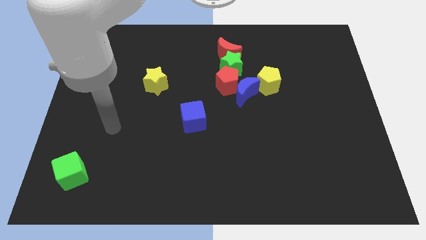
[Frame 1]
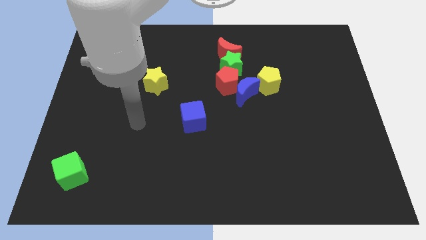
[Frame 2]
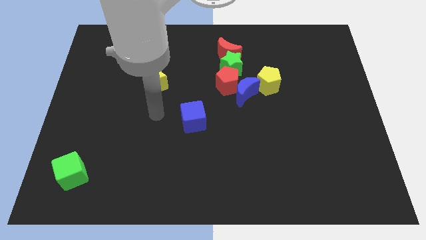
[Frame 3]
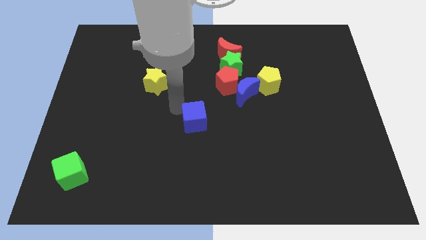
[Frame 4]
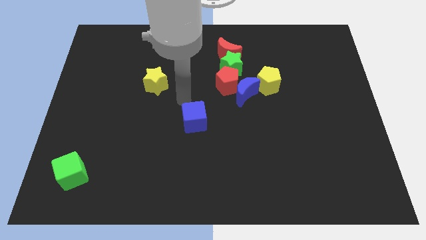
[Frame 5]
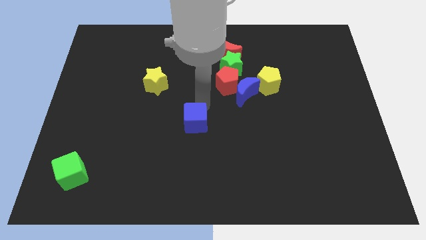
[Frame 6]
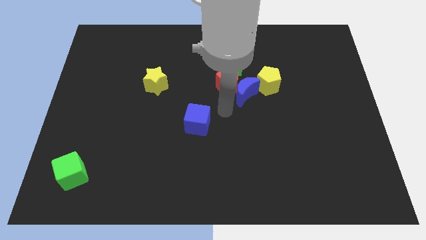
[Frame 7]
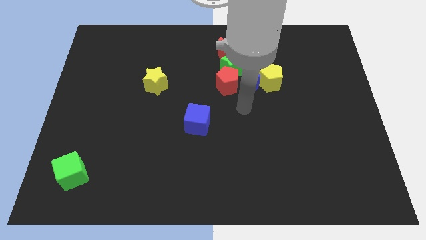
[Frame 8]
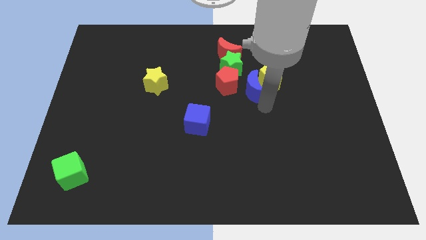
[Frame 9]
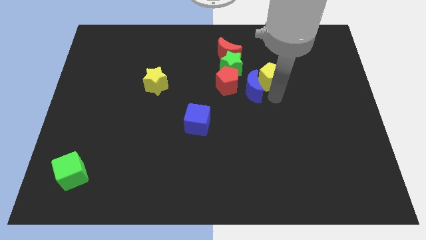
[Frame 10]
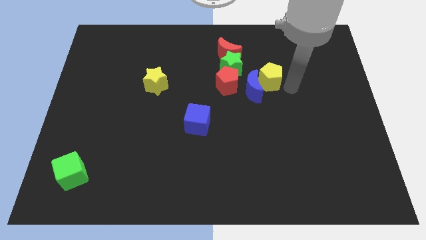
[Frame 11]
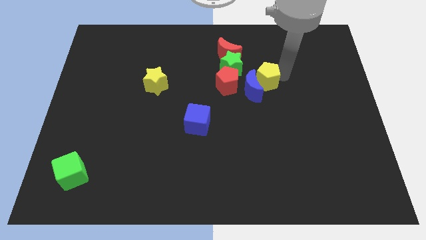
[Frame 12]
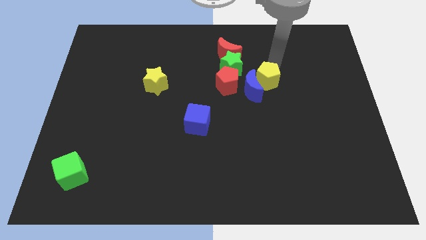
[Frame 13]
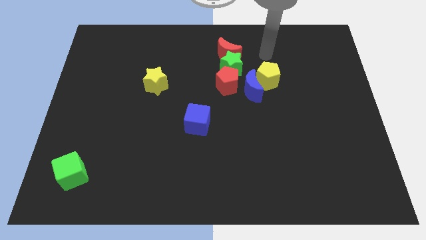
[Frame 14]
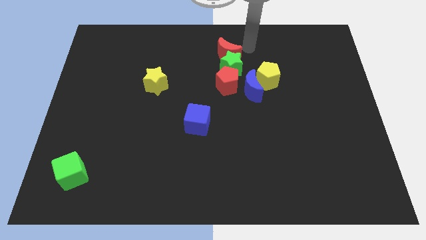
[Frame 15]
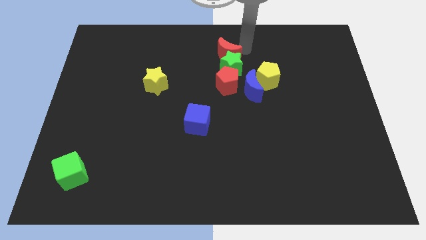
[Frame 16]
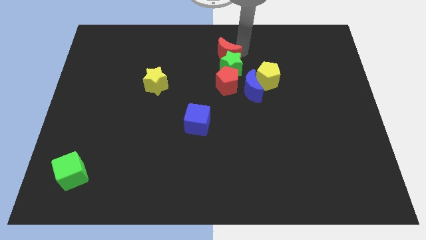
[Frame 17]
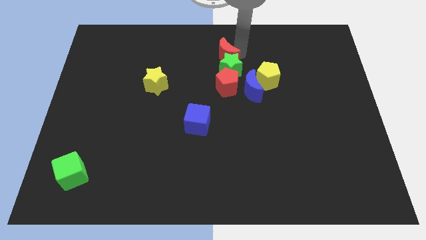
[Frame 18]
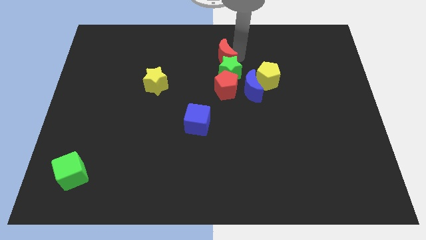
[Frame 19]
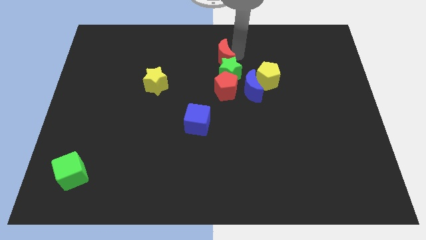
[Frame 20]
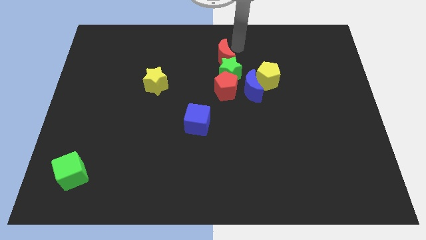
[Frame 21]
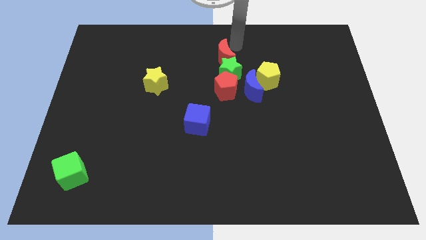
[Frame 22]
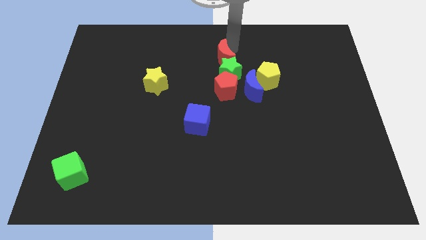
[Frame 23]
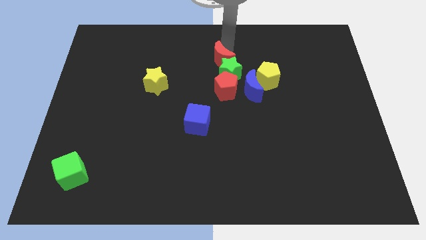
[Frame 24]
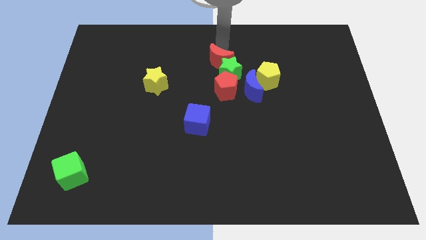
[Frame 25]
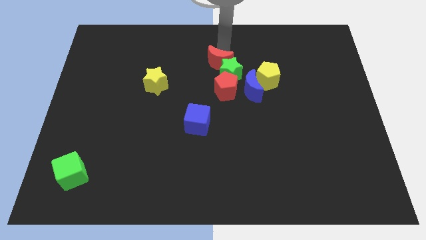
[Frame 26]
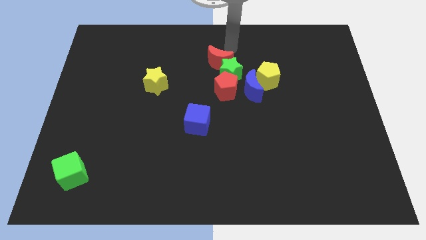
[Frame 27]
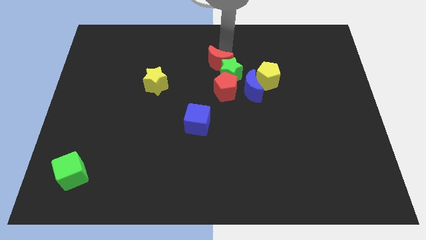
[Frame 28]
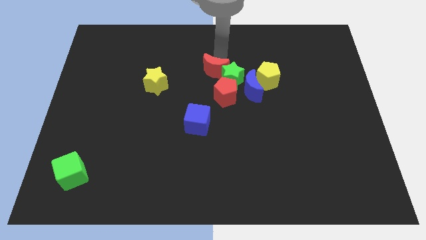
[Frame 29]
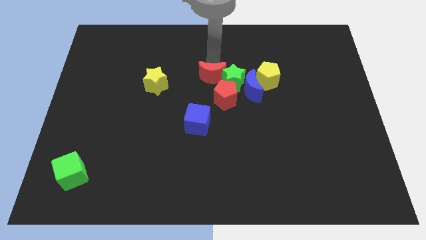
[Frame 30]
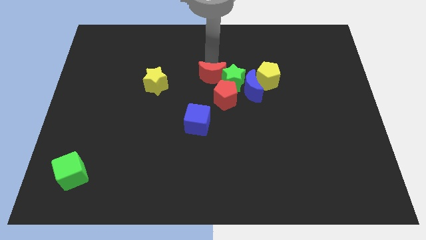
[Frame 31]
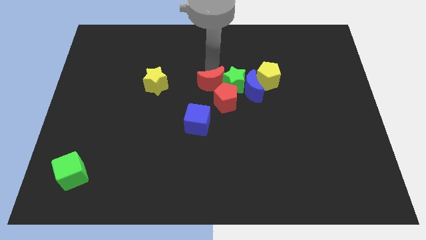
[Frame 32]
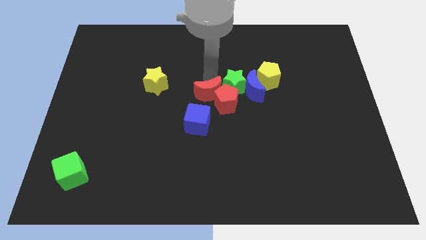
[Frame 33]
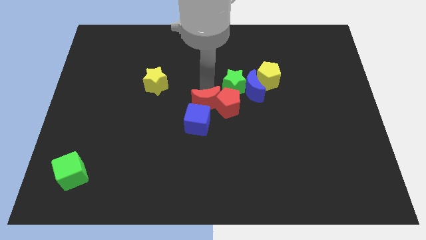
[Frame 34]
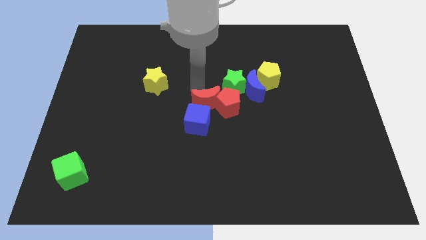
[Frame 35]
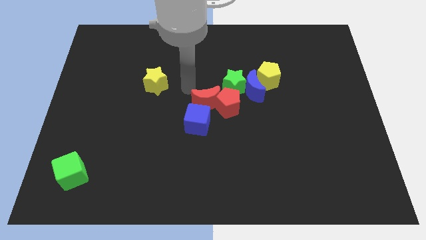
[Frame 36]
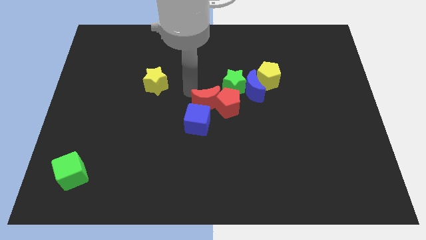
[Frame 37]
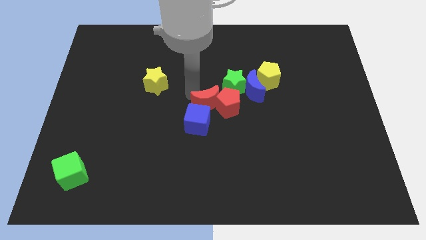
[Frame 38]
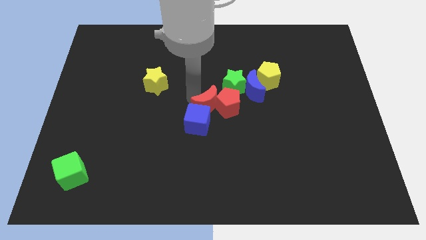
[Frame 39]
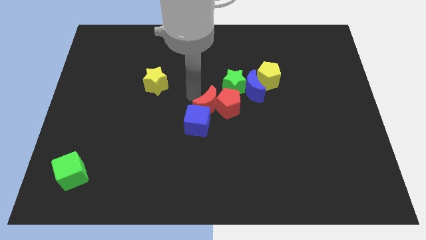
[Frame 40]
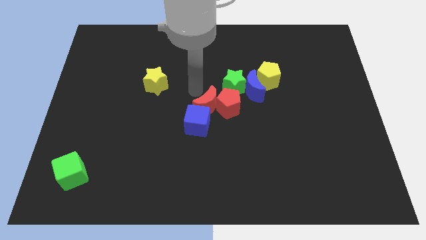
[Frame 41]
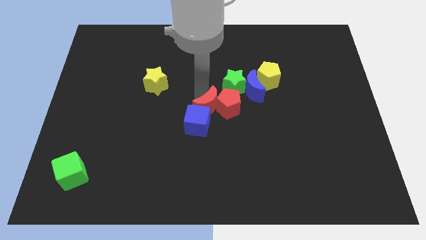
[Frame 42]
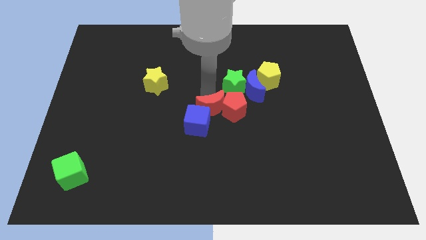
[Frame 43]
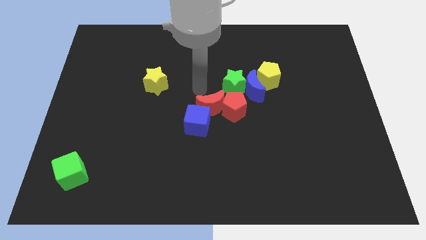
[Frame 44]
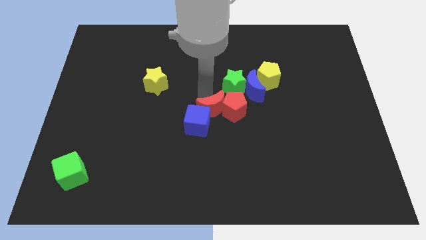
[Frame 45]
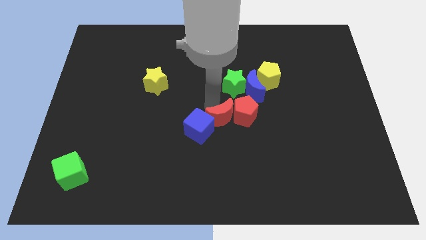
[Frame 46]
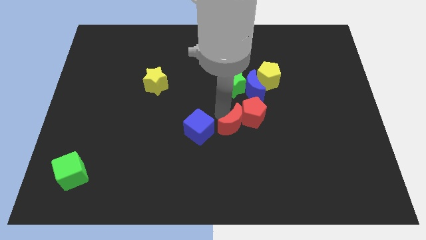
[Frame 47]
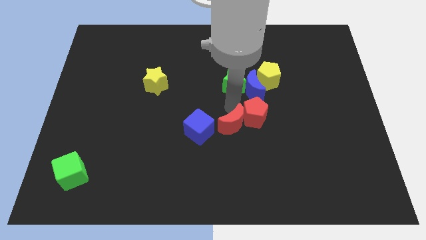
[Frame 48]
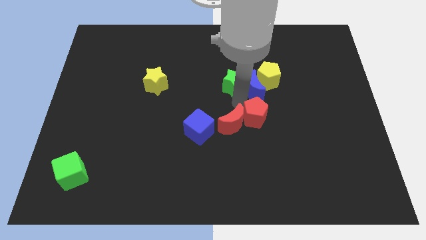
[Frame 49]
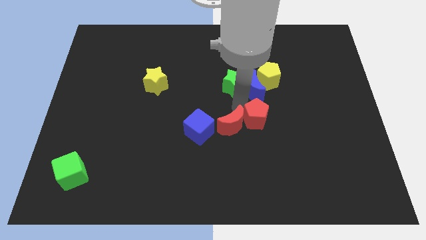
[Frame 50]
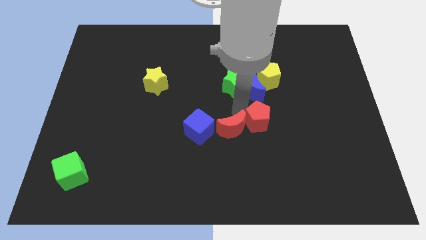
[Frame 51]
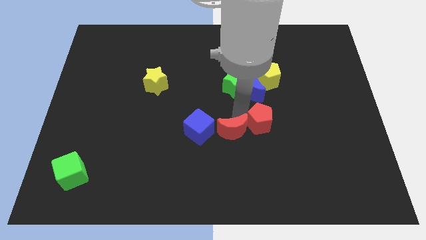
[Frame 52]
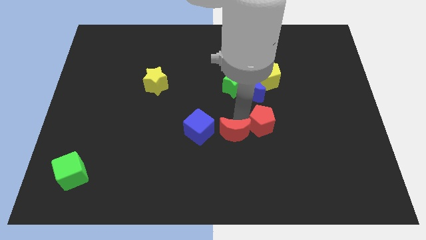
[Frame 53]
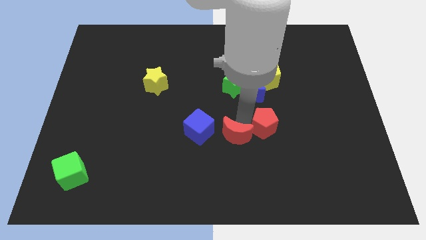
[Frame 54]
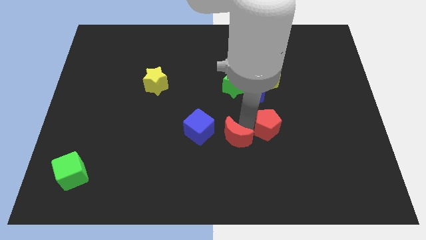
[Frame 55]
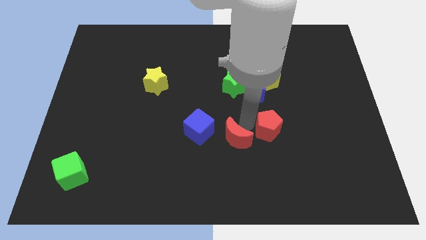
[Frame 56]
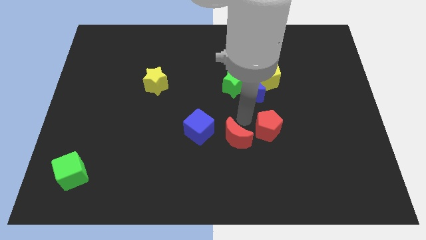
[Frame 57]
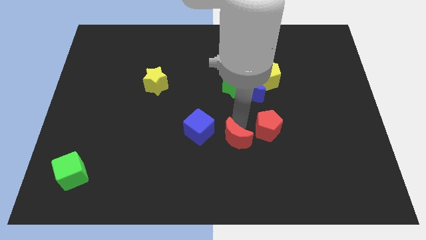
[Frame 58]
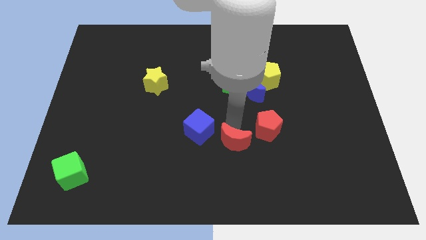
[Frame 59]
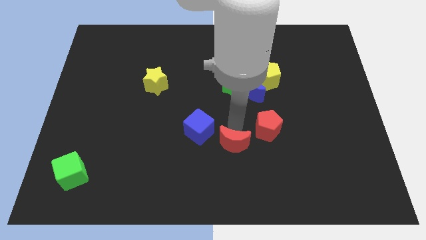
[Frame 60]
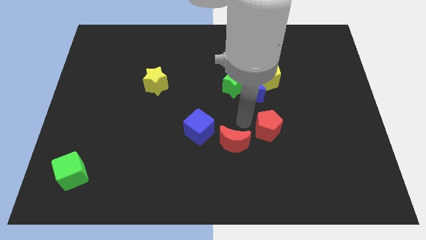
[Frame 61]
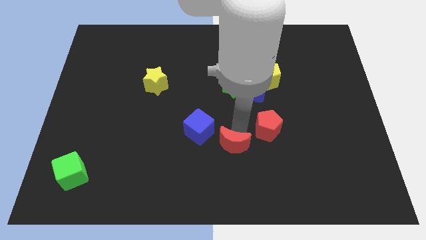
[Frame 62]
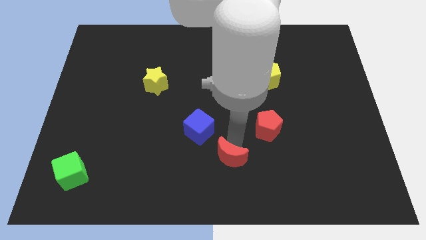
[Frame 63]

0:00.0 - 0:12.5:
move the red moon to the bottom
